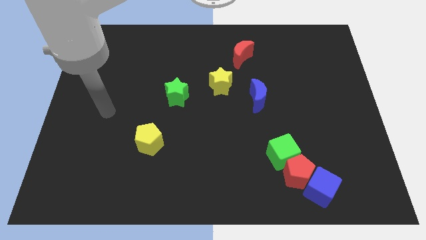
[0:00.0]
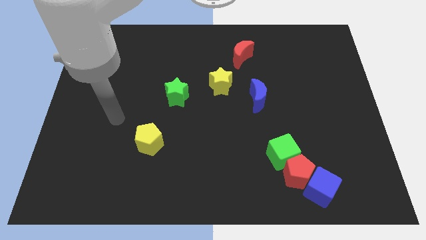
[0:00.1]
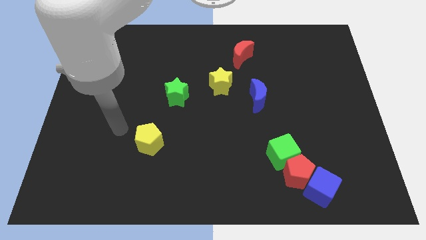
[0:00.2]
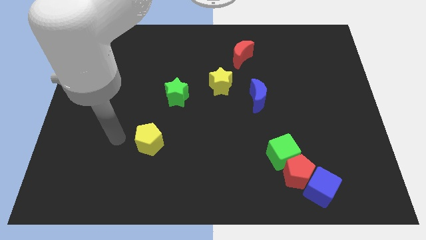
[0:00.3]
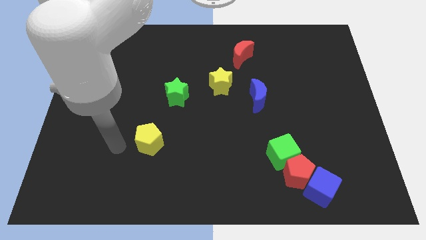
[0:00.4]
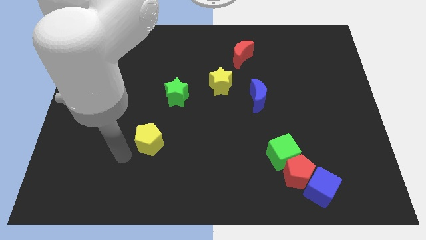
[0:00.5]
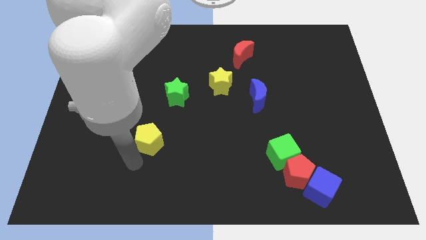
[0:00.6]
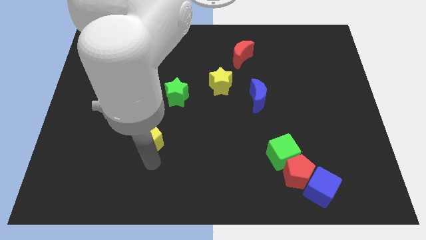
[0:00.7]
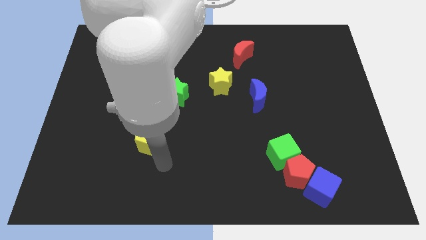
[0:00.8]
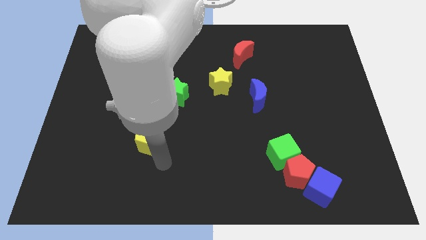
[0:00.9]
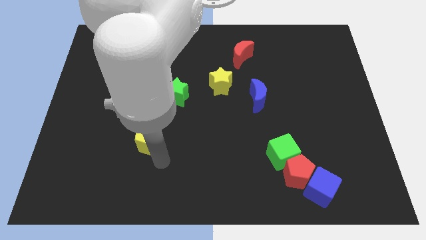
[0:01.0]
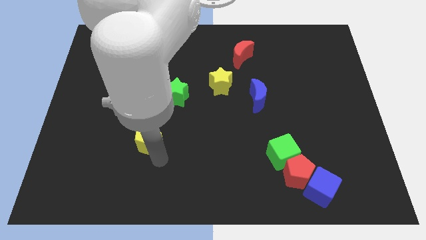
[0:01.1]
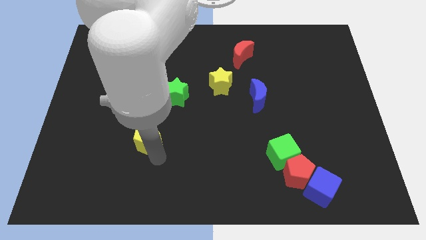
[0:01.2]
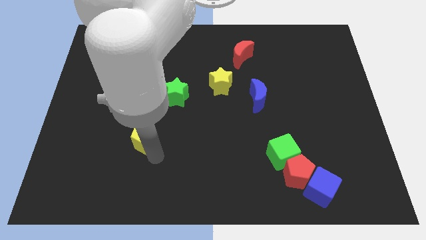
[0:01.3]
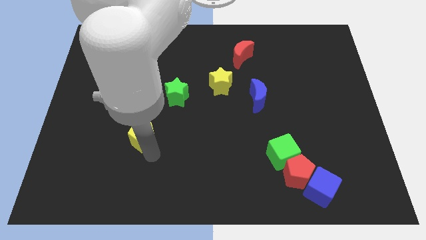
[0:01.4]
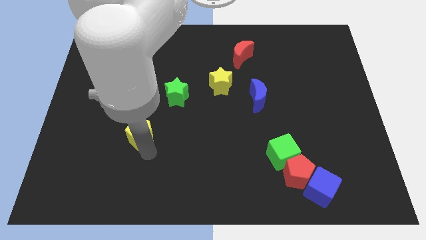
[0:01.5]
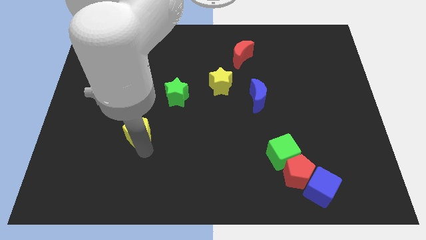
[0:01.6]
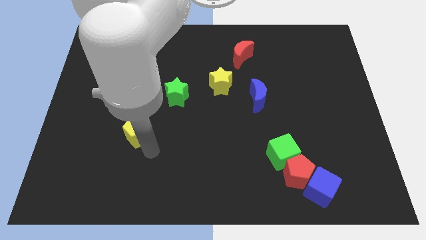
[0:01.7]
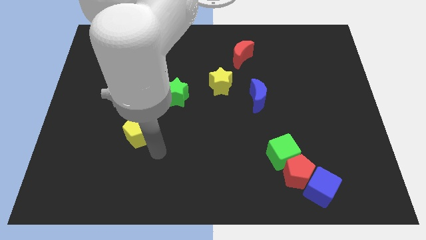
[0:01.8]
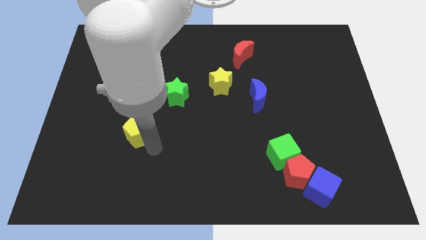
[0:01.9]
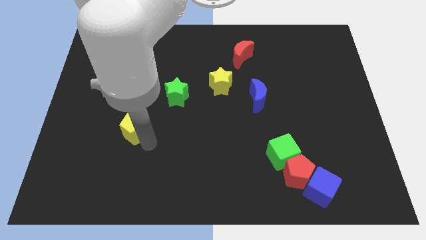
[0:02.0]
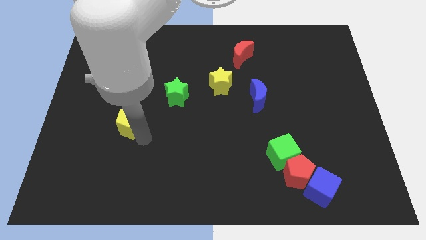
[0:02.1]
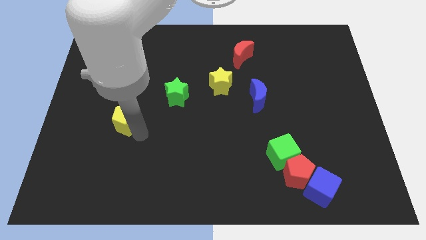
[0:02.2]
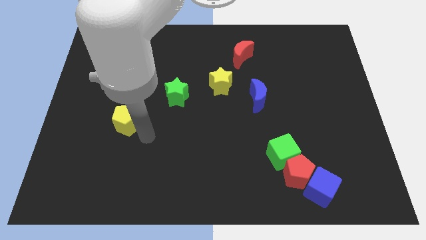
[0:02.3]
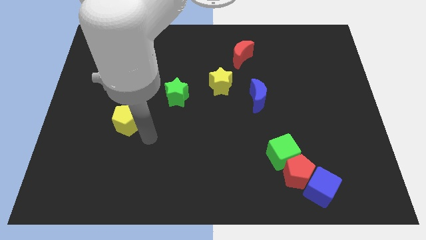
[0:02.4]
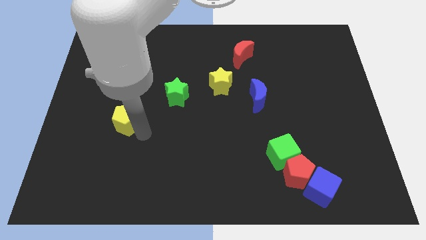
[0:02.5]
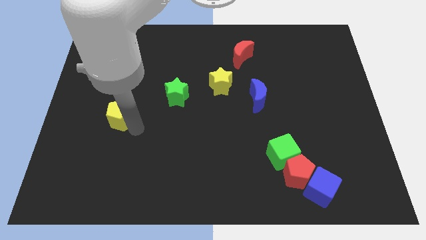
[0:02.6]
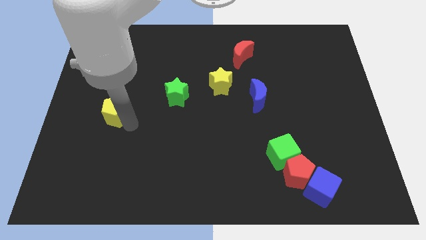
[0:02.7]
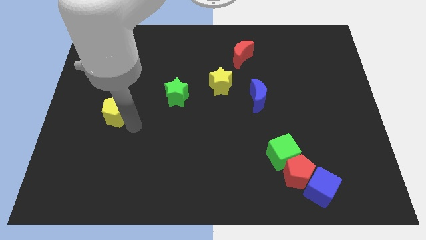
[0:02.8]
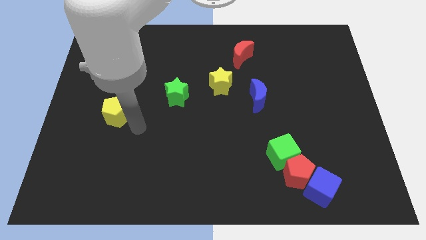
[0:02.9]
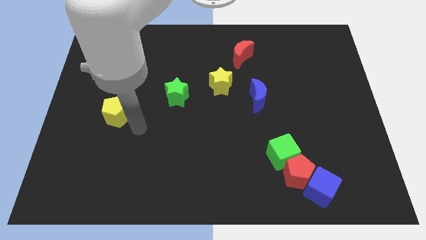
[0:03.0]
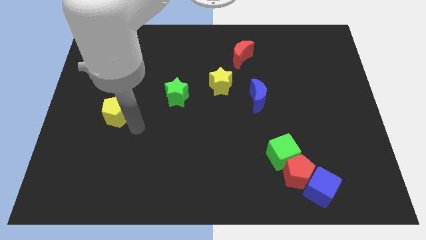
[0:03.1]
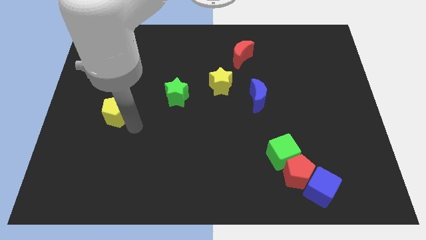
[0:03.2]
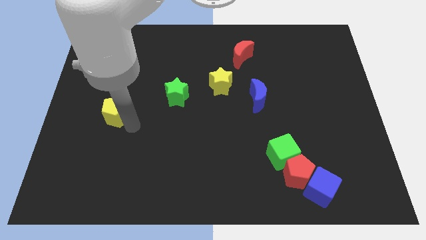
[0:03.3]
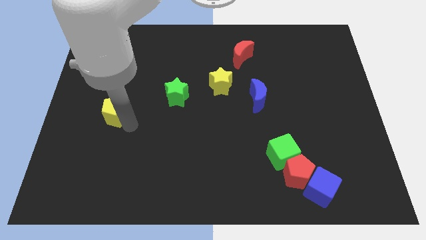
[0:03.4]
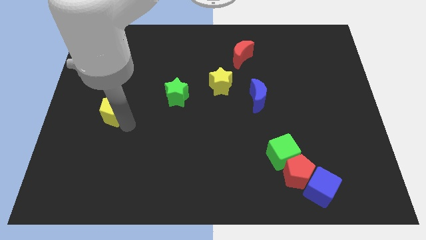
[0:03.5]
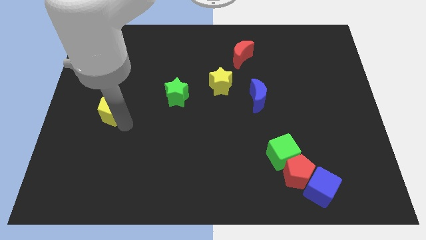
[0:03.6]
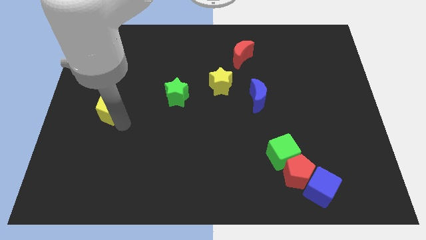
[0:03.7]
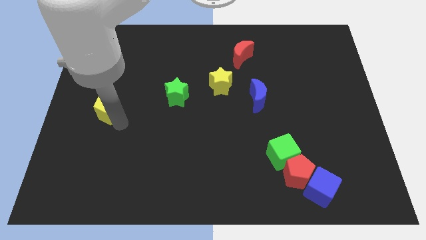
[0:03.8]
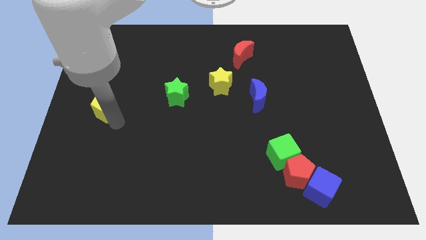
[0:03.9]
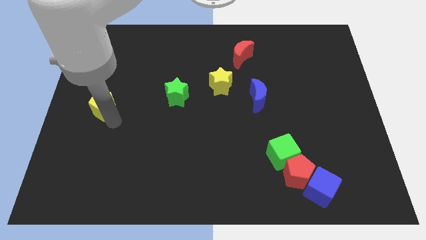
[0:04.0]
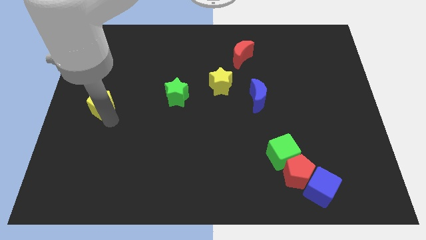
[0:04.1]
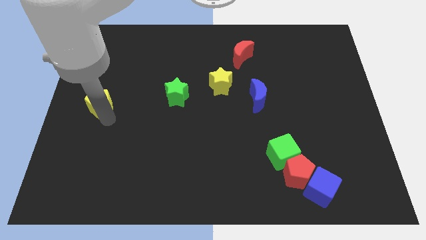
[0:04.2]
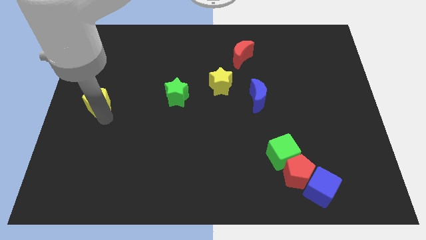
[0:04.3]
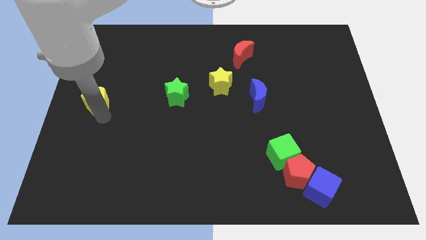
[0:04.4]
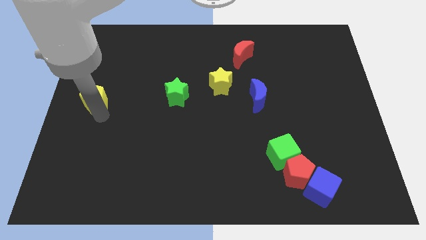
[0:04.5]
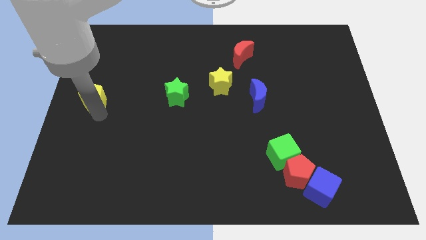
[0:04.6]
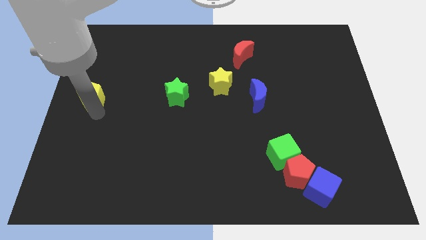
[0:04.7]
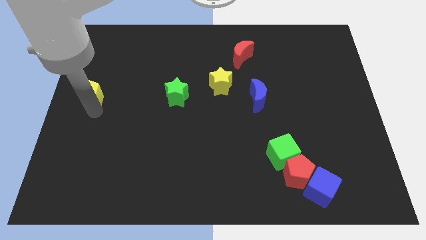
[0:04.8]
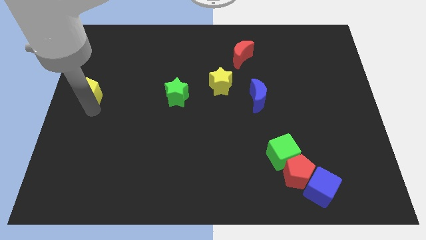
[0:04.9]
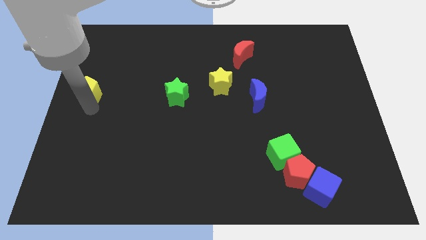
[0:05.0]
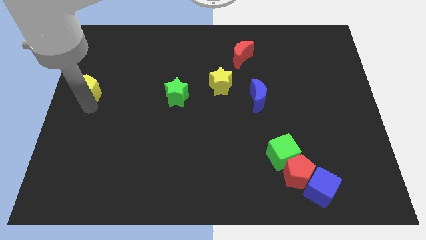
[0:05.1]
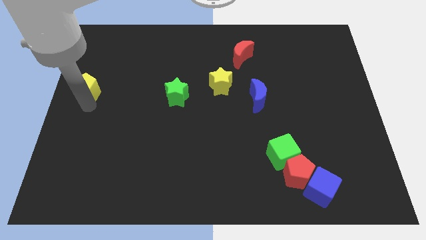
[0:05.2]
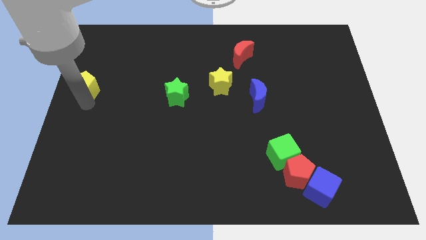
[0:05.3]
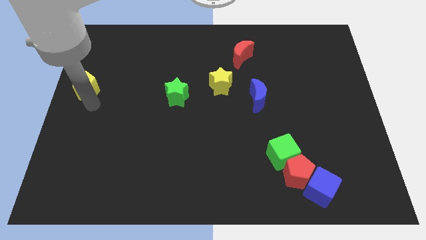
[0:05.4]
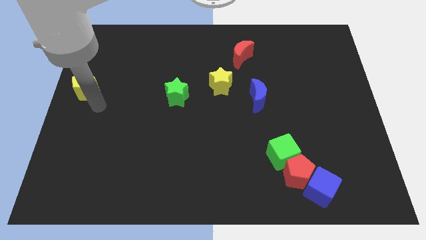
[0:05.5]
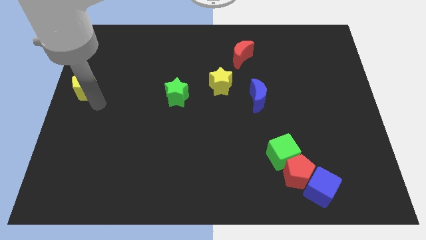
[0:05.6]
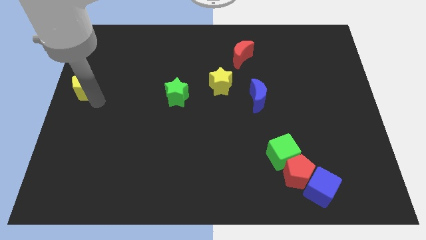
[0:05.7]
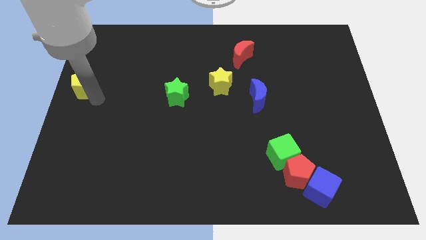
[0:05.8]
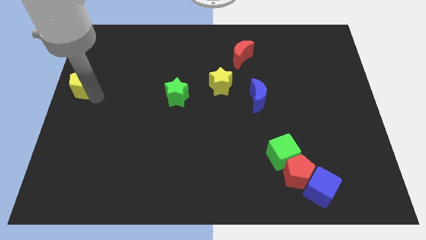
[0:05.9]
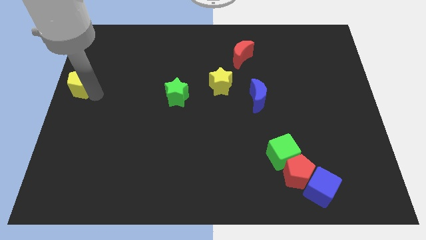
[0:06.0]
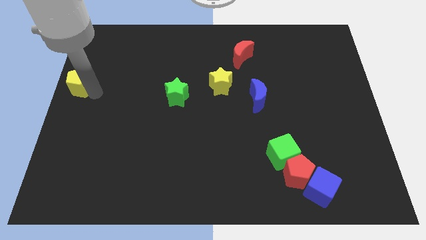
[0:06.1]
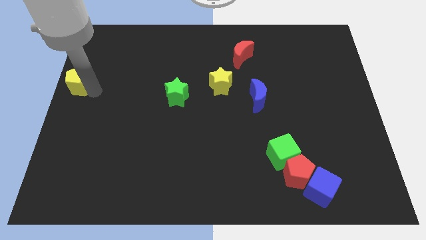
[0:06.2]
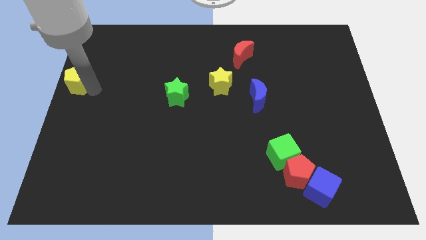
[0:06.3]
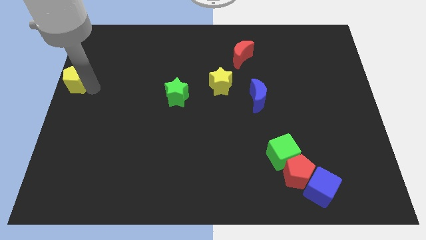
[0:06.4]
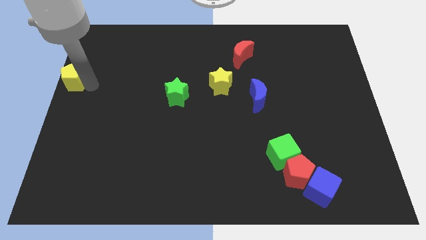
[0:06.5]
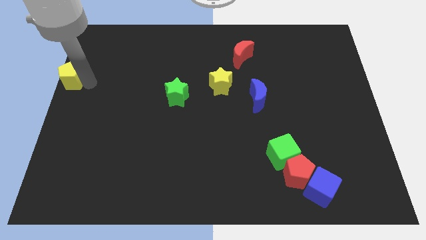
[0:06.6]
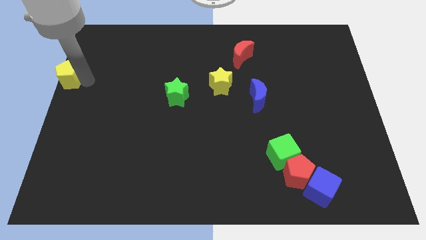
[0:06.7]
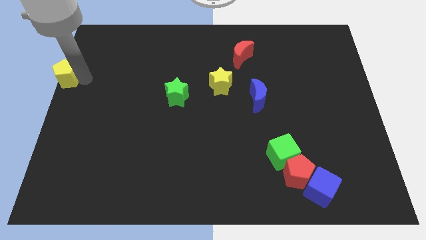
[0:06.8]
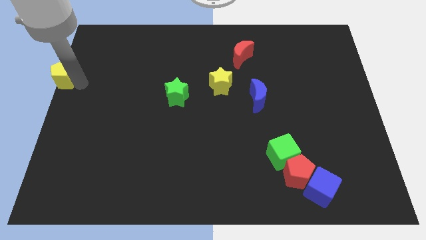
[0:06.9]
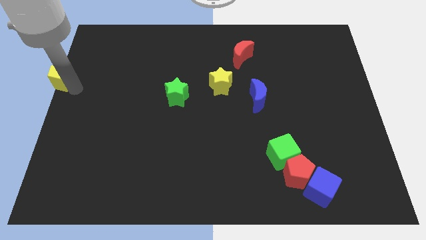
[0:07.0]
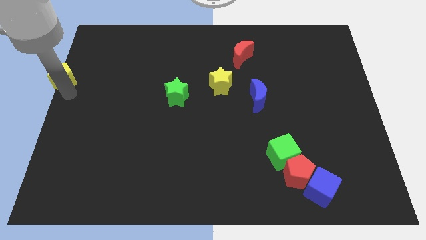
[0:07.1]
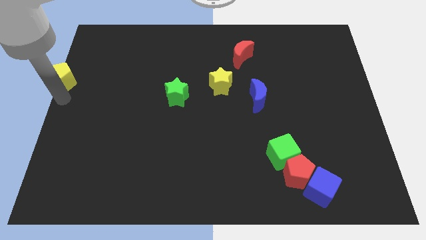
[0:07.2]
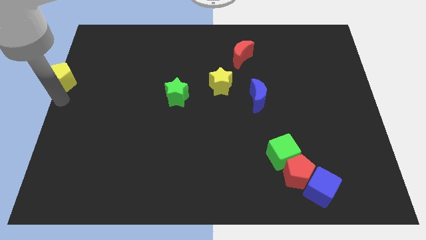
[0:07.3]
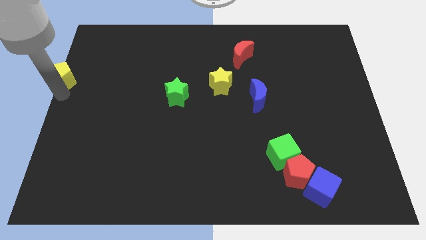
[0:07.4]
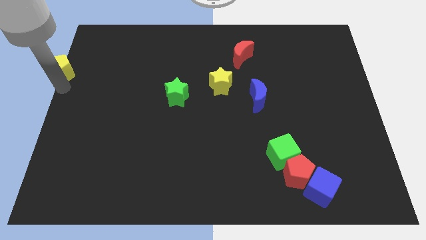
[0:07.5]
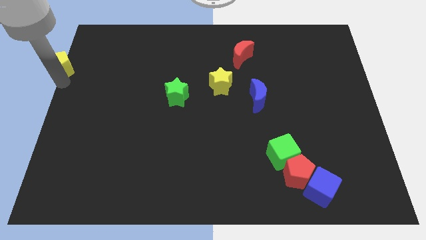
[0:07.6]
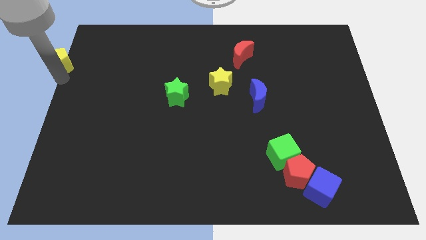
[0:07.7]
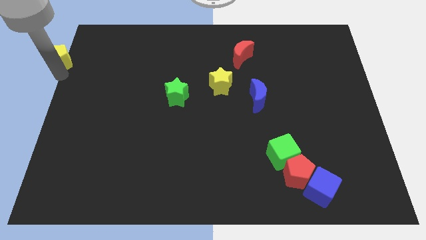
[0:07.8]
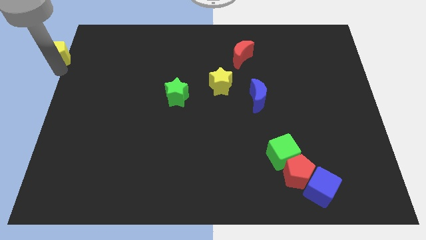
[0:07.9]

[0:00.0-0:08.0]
put the yellow pentagon to the upper left corner

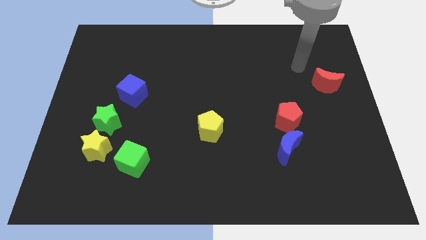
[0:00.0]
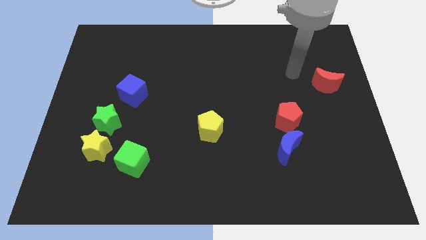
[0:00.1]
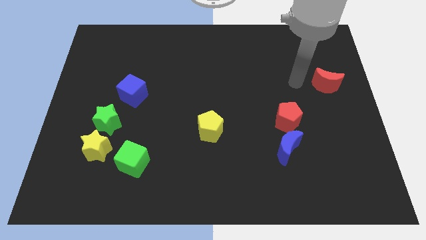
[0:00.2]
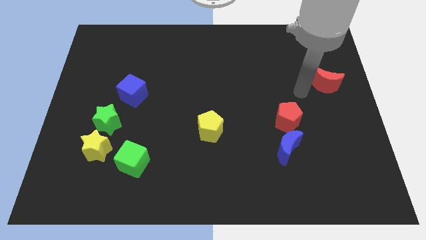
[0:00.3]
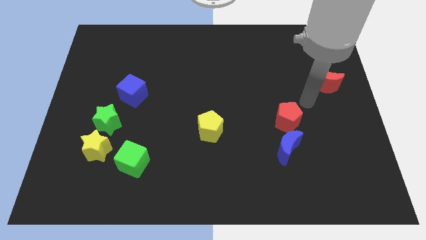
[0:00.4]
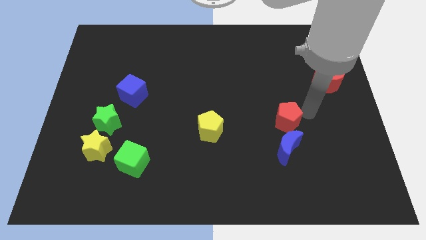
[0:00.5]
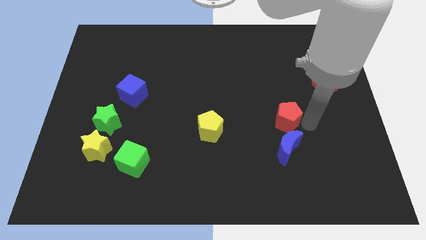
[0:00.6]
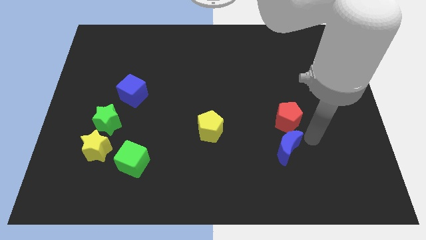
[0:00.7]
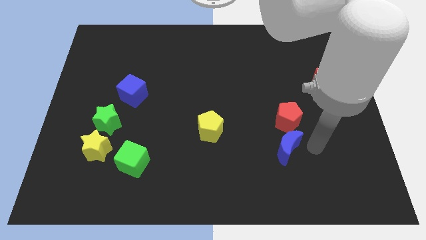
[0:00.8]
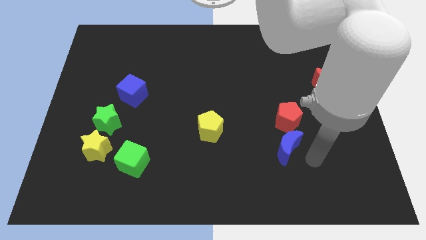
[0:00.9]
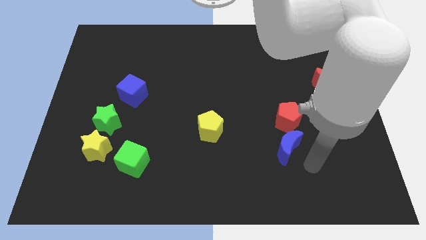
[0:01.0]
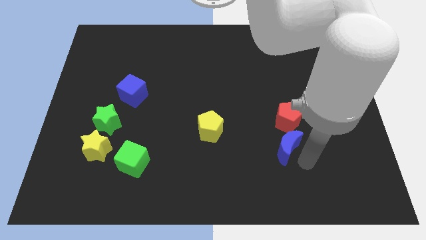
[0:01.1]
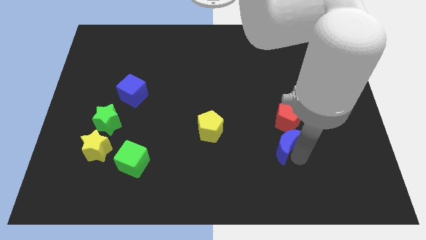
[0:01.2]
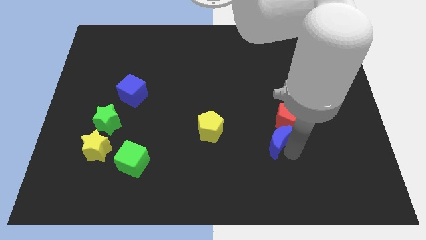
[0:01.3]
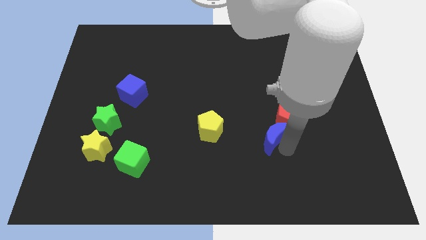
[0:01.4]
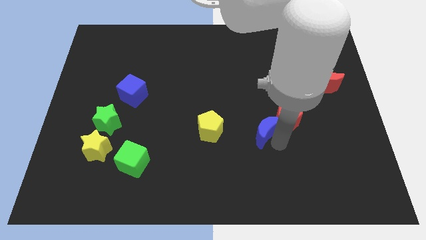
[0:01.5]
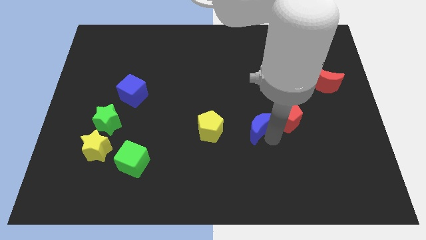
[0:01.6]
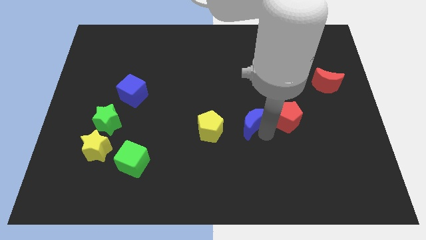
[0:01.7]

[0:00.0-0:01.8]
move the blue moon to the center of the board
